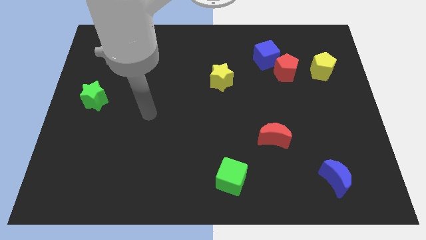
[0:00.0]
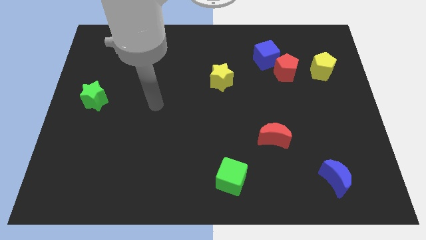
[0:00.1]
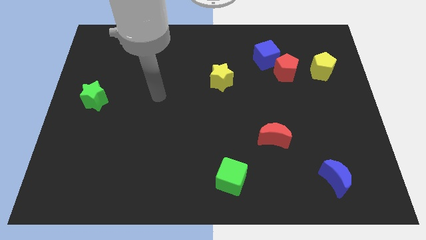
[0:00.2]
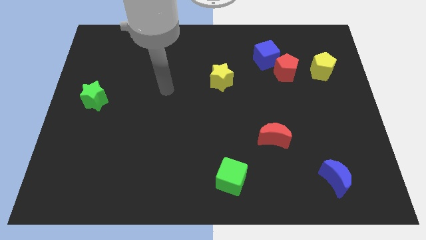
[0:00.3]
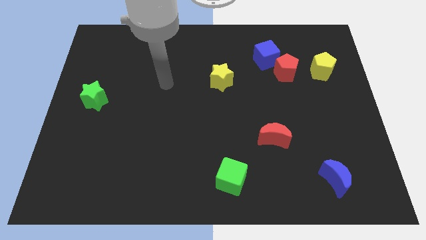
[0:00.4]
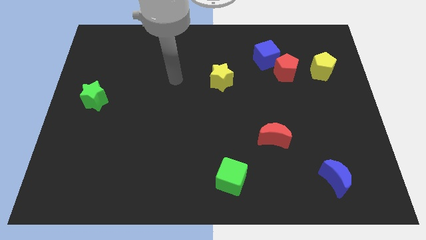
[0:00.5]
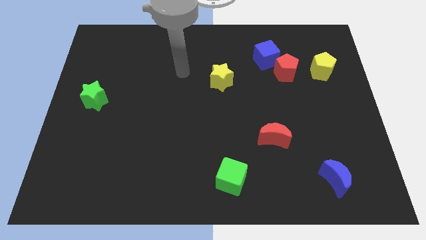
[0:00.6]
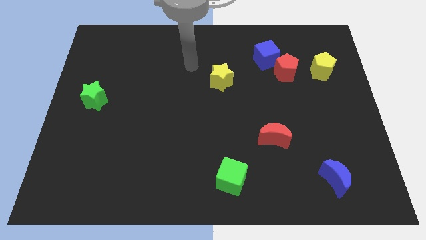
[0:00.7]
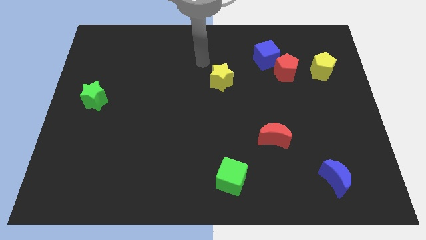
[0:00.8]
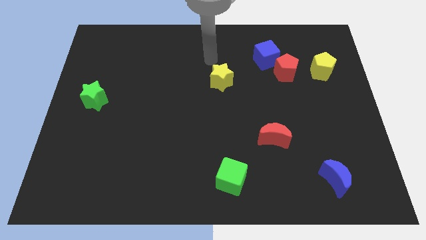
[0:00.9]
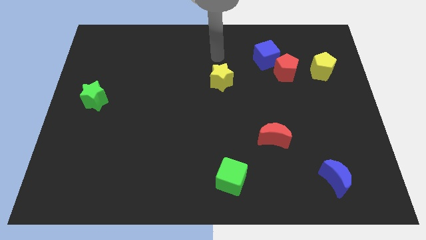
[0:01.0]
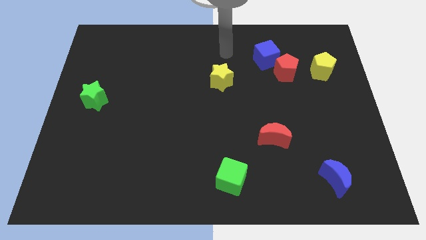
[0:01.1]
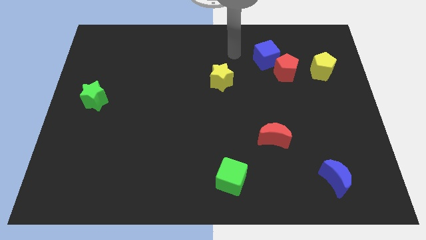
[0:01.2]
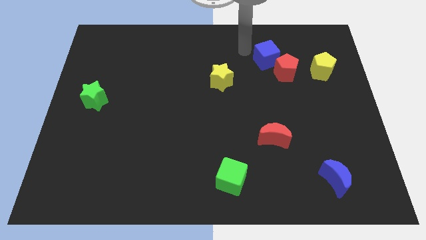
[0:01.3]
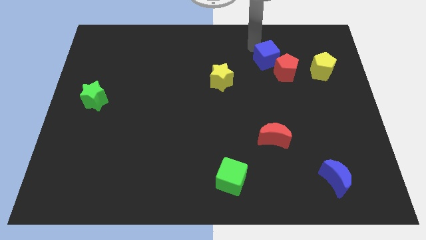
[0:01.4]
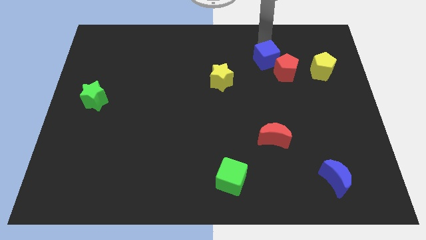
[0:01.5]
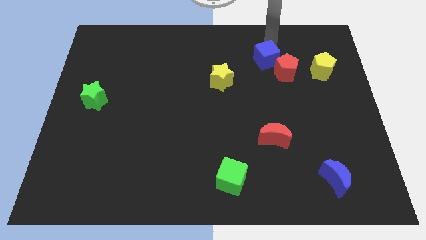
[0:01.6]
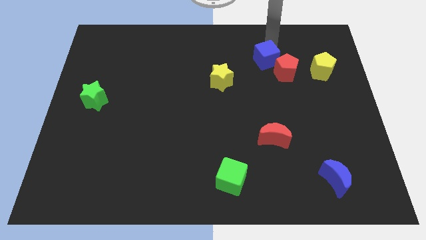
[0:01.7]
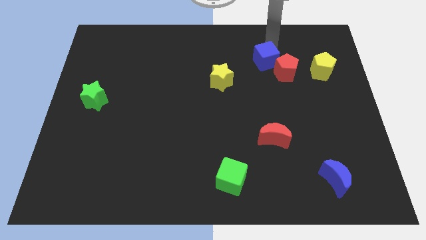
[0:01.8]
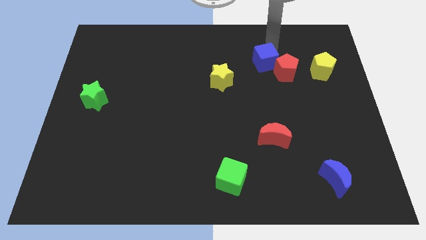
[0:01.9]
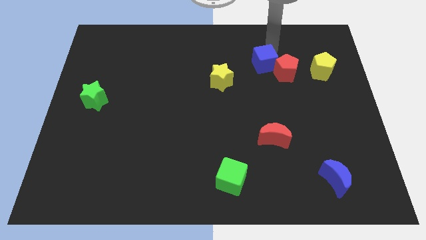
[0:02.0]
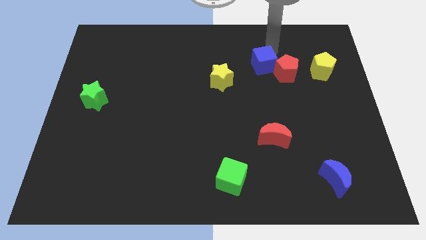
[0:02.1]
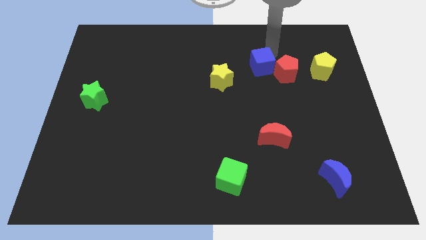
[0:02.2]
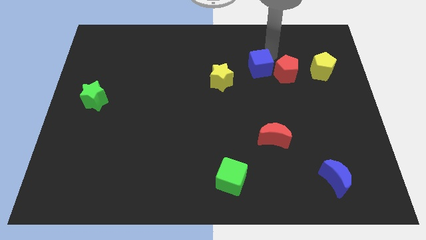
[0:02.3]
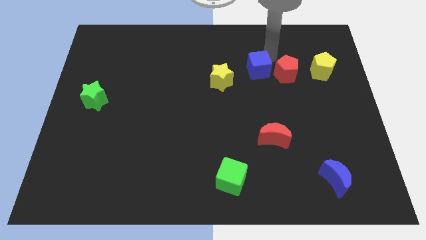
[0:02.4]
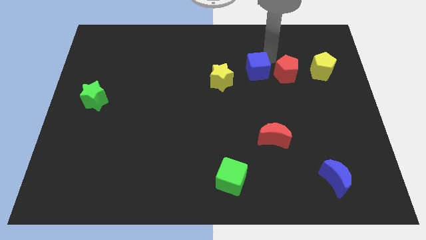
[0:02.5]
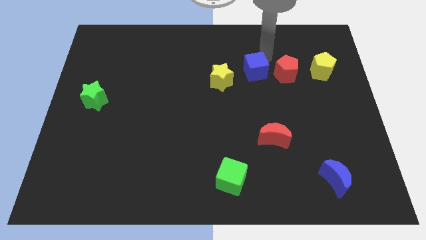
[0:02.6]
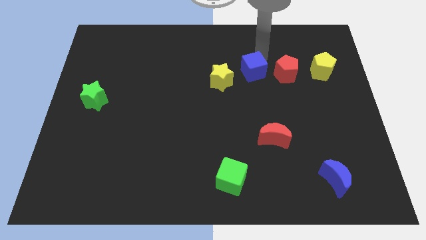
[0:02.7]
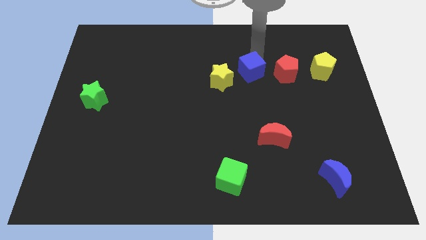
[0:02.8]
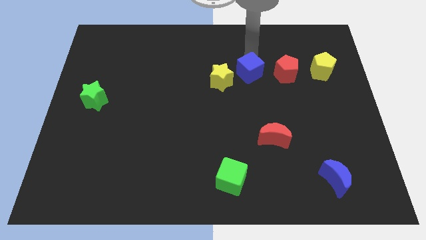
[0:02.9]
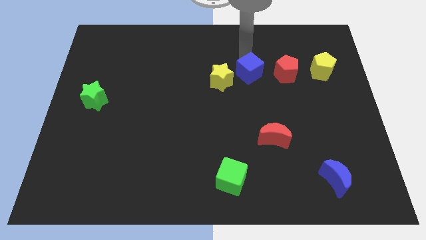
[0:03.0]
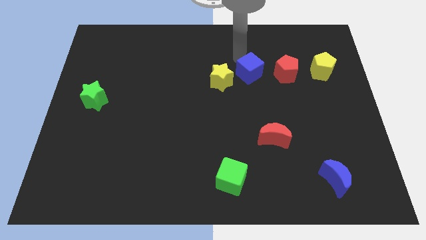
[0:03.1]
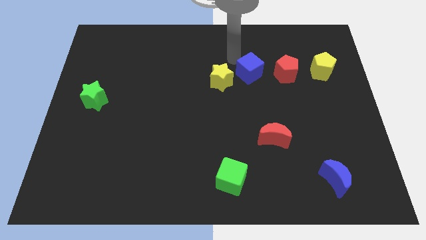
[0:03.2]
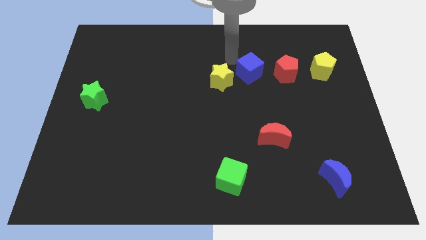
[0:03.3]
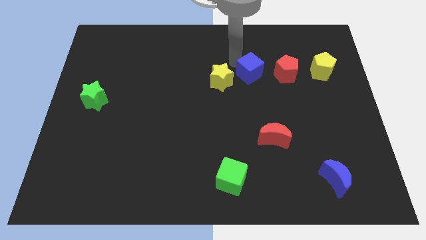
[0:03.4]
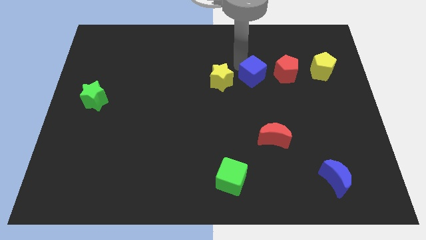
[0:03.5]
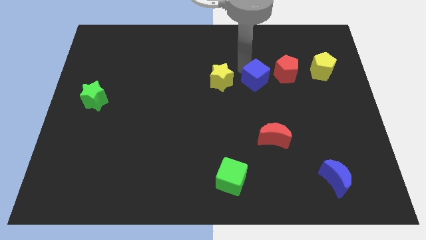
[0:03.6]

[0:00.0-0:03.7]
move the blue cube down slightly

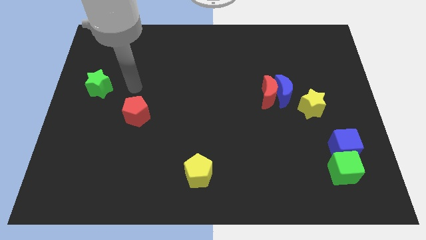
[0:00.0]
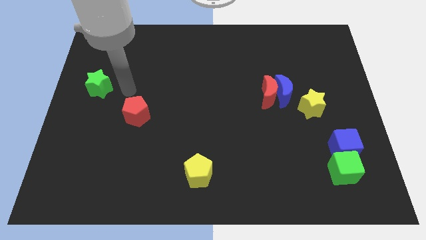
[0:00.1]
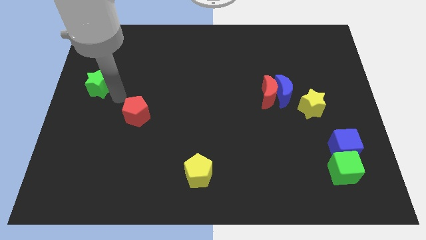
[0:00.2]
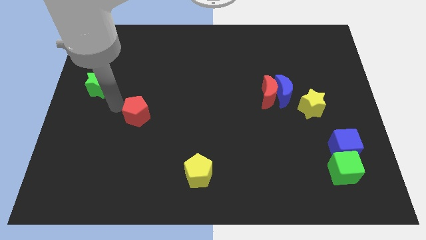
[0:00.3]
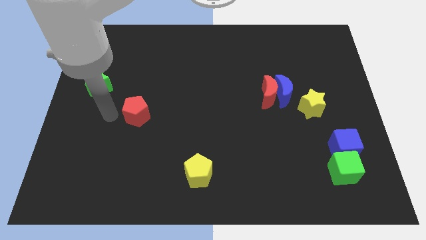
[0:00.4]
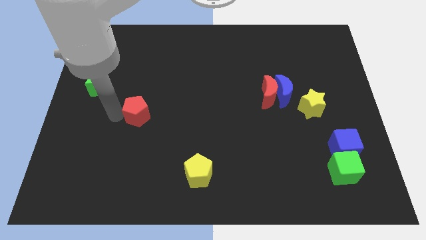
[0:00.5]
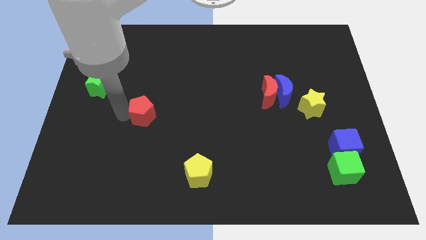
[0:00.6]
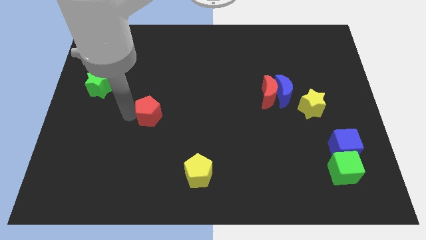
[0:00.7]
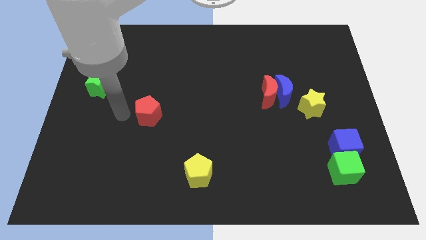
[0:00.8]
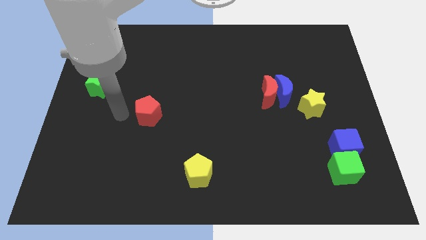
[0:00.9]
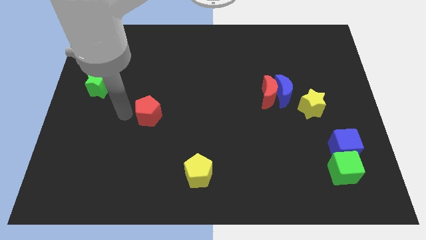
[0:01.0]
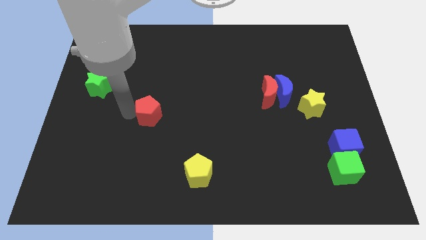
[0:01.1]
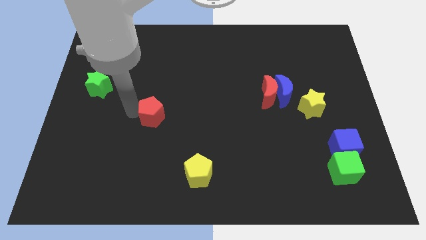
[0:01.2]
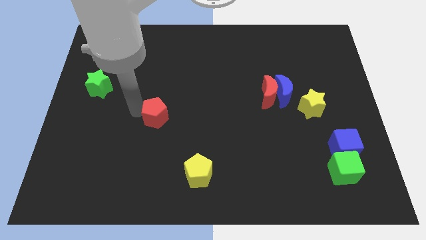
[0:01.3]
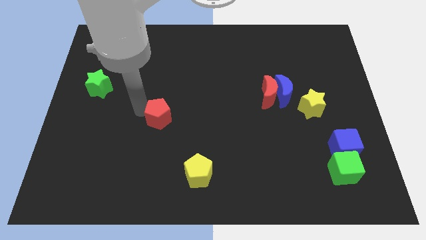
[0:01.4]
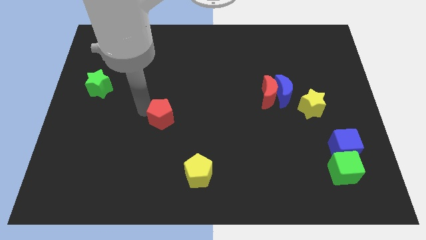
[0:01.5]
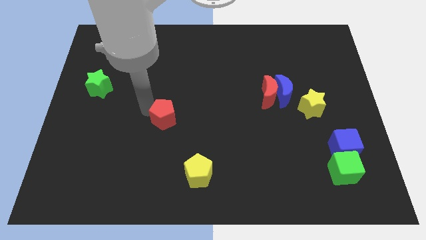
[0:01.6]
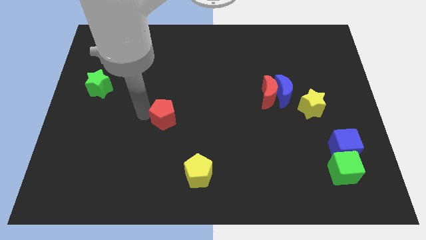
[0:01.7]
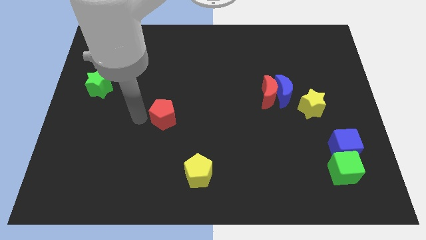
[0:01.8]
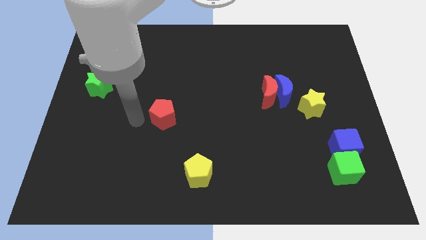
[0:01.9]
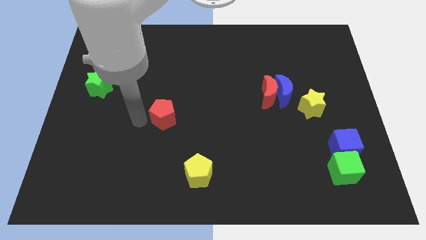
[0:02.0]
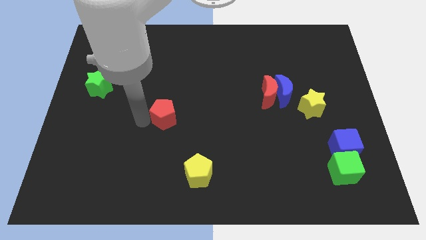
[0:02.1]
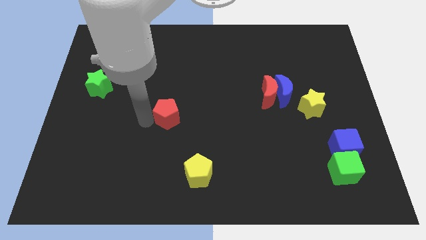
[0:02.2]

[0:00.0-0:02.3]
slightly push the red pentagon to the right

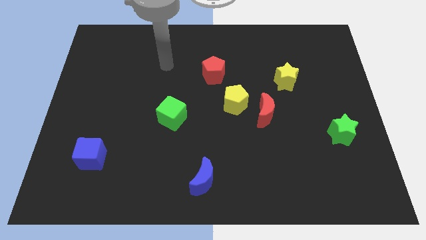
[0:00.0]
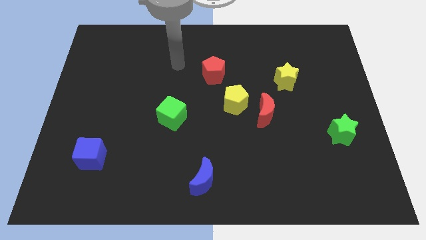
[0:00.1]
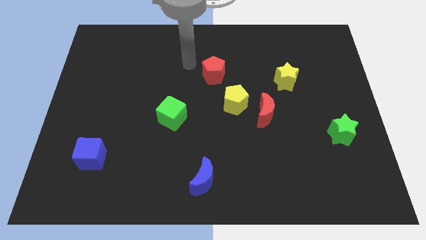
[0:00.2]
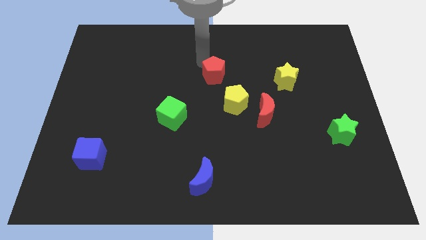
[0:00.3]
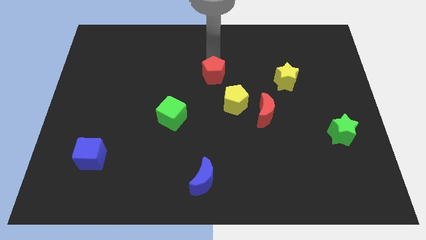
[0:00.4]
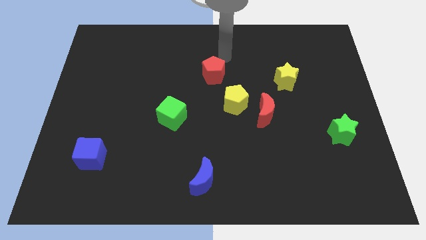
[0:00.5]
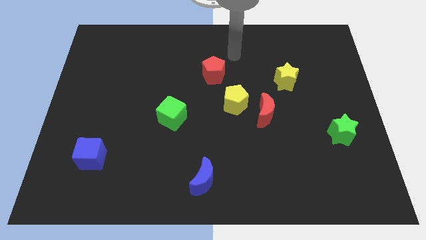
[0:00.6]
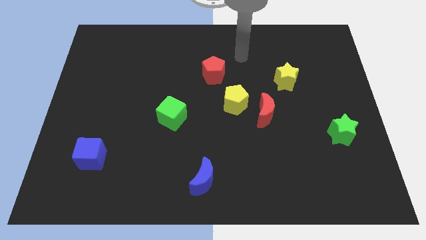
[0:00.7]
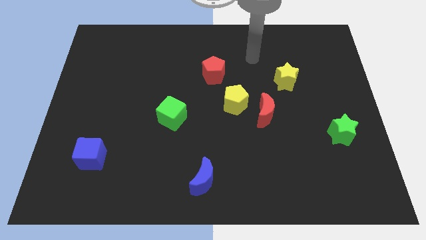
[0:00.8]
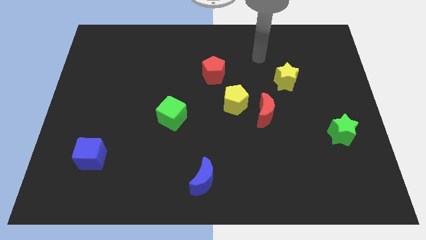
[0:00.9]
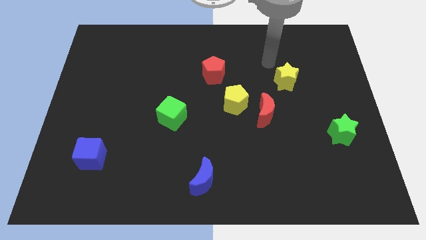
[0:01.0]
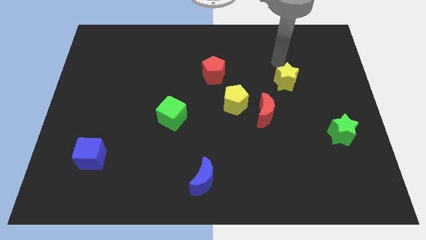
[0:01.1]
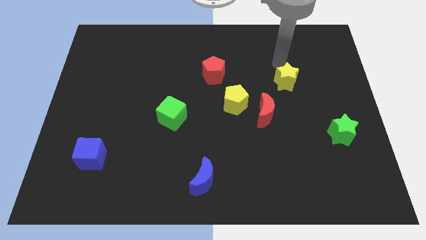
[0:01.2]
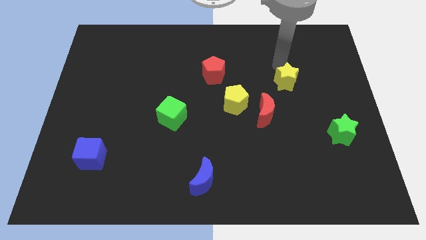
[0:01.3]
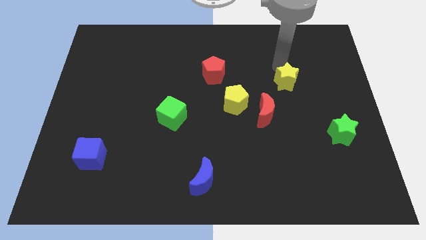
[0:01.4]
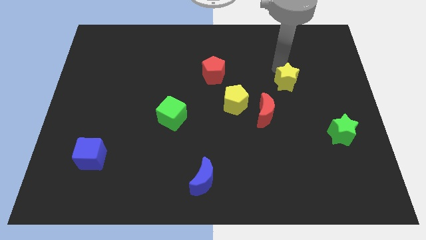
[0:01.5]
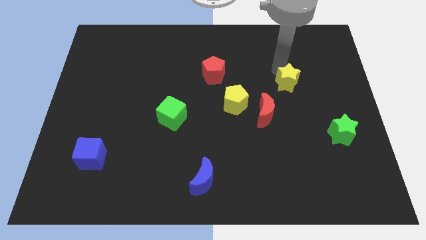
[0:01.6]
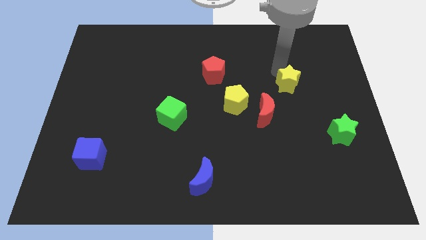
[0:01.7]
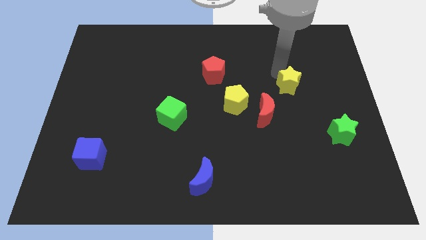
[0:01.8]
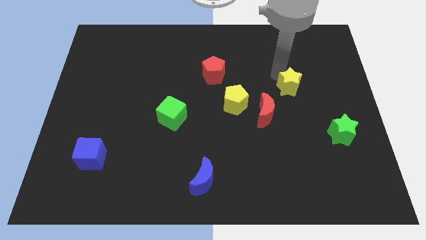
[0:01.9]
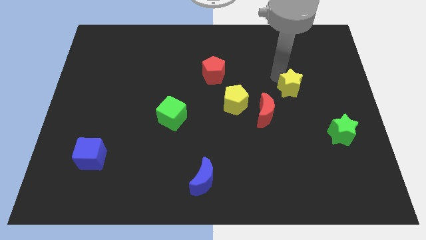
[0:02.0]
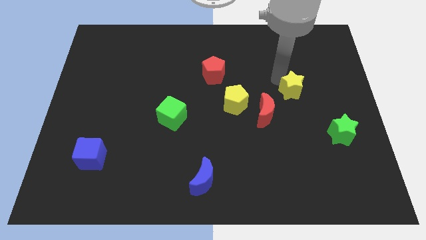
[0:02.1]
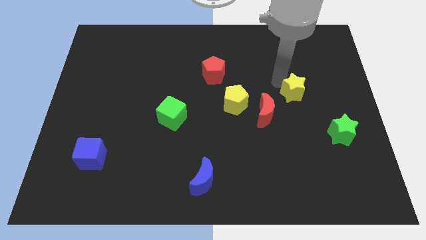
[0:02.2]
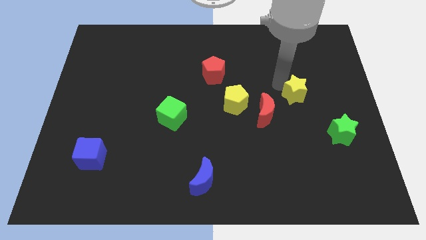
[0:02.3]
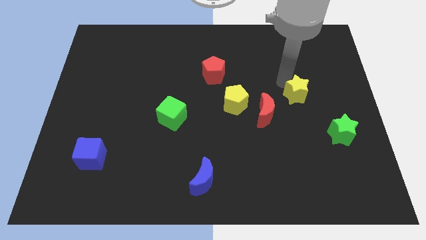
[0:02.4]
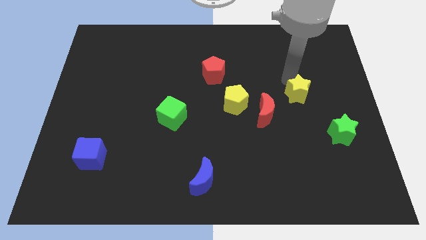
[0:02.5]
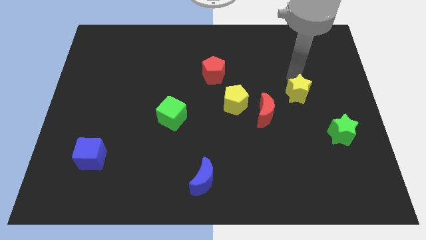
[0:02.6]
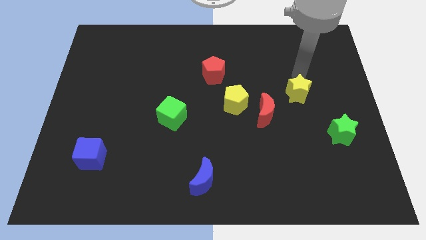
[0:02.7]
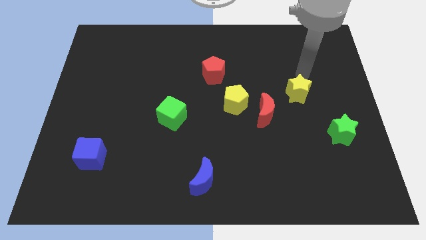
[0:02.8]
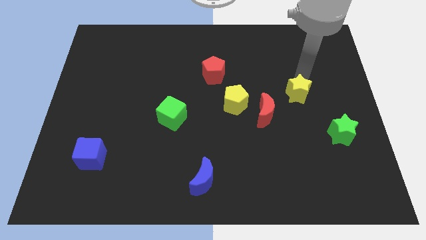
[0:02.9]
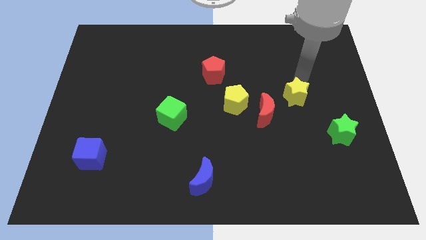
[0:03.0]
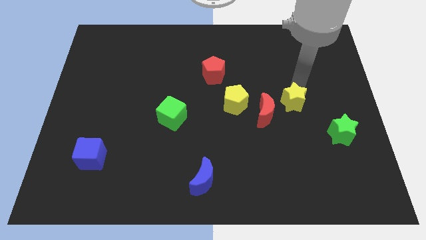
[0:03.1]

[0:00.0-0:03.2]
move the yellow star downwards slightly
